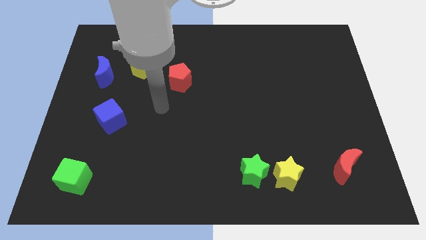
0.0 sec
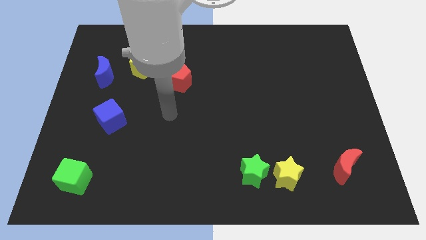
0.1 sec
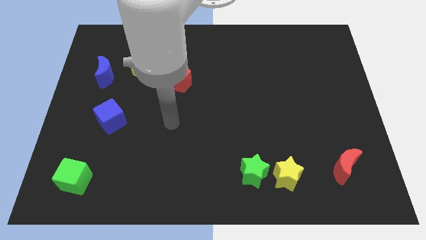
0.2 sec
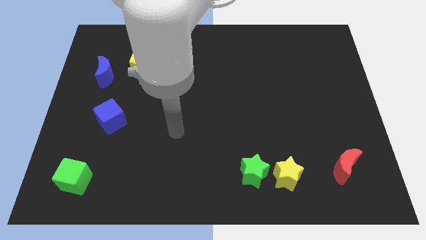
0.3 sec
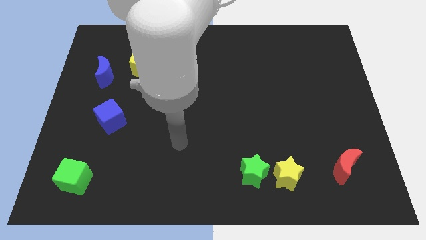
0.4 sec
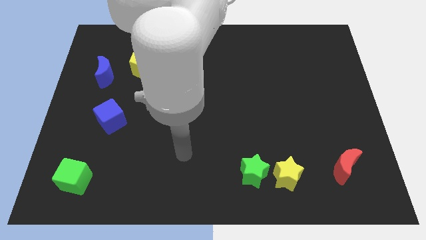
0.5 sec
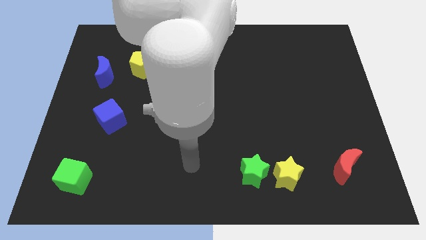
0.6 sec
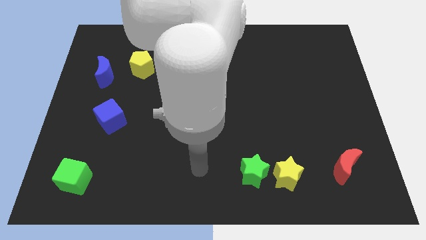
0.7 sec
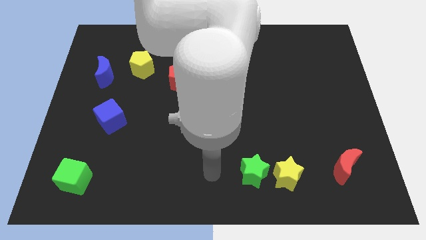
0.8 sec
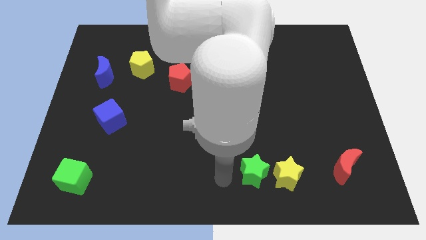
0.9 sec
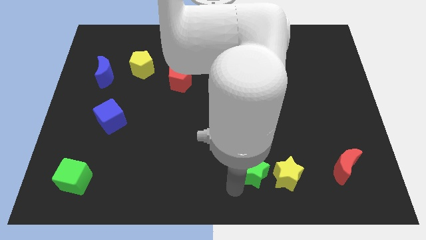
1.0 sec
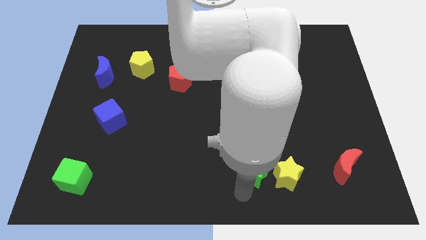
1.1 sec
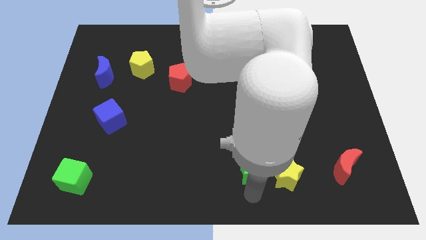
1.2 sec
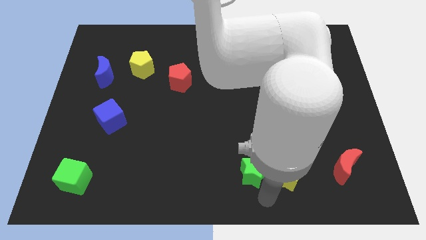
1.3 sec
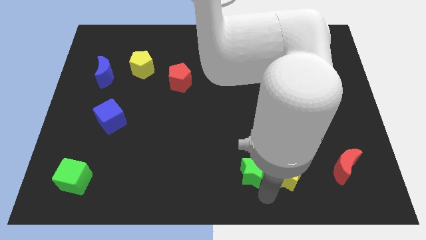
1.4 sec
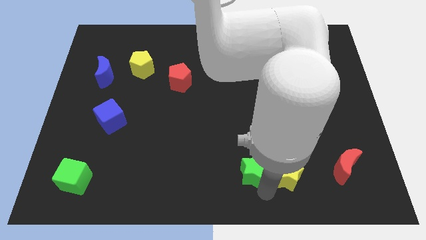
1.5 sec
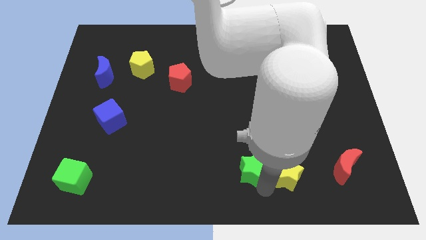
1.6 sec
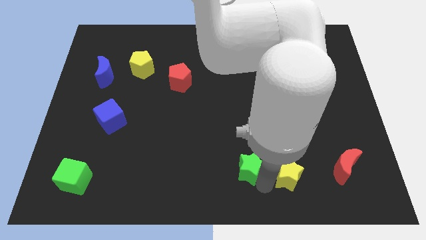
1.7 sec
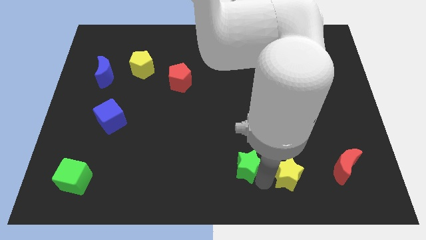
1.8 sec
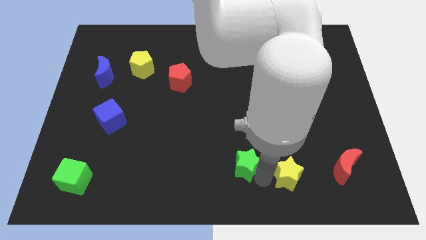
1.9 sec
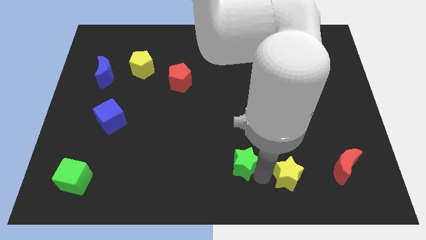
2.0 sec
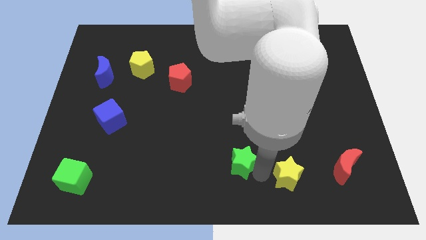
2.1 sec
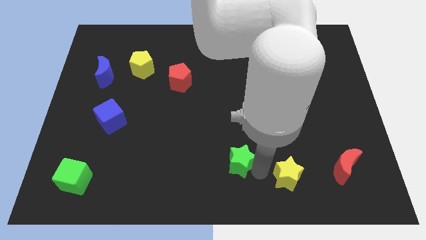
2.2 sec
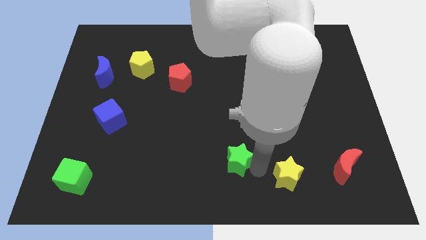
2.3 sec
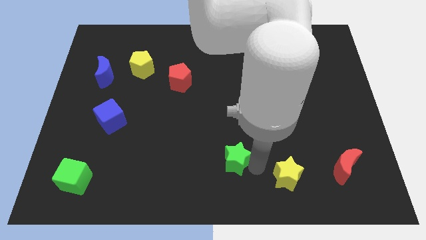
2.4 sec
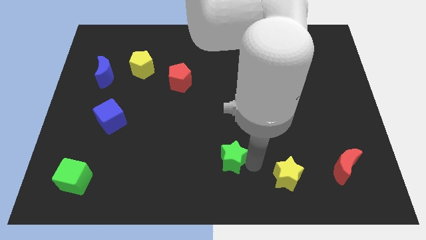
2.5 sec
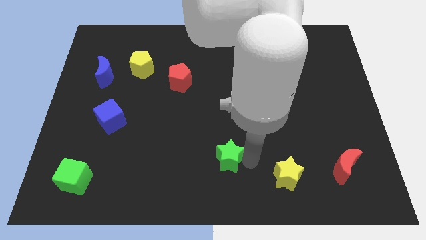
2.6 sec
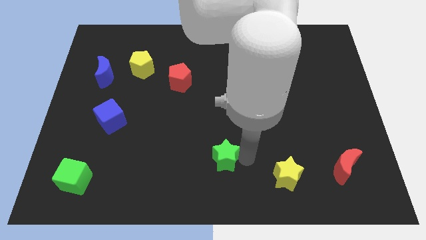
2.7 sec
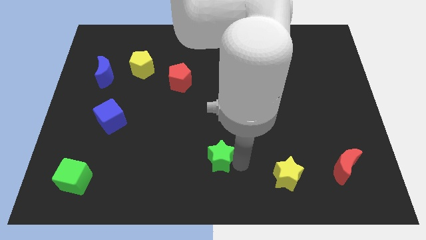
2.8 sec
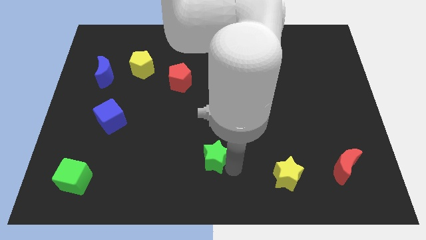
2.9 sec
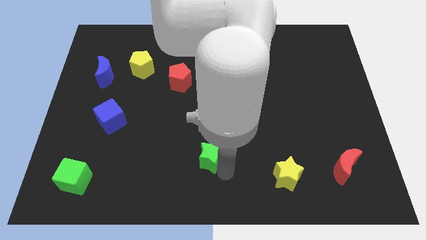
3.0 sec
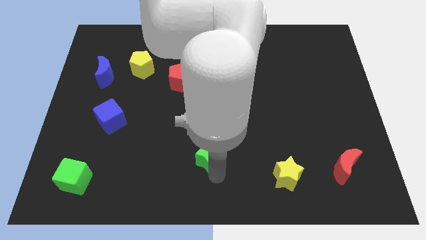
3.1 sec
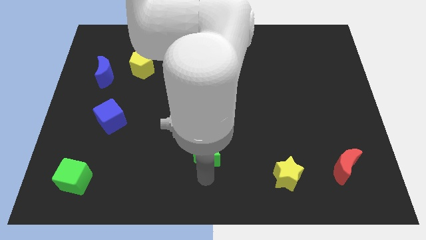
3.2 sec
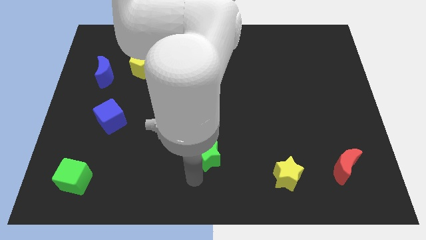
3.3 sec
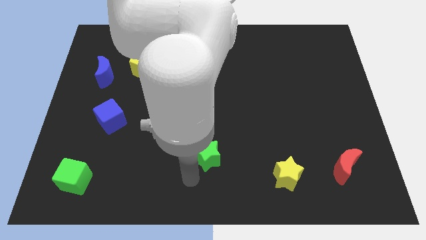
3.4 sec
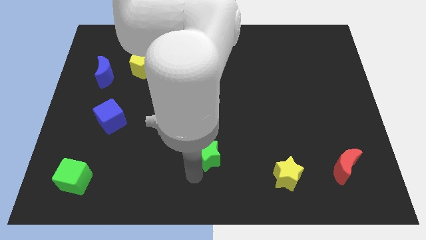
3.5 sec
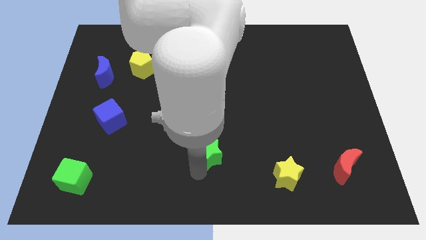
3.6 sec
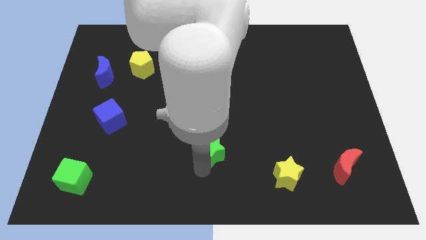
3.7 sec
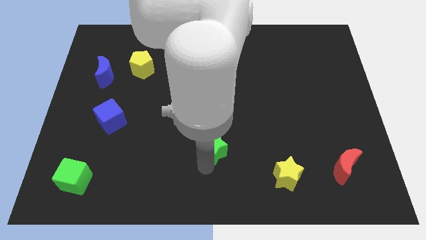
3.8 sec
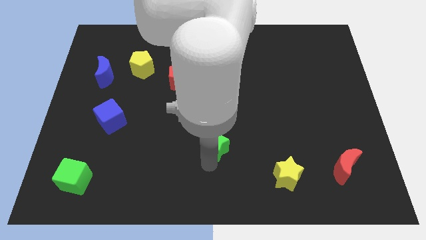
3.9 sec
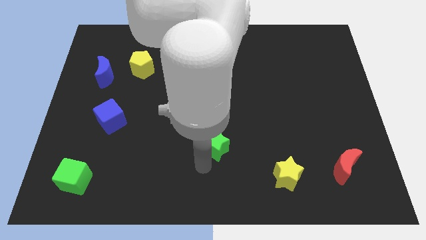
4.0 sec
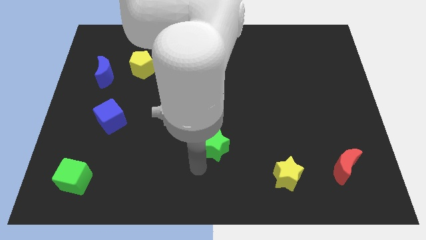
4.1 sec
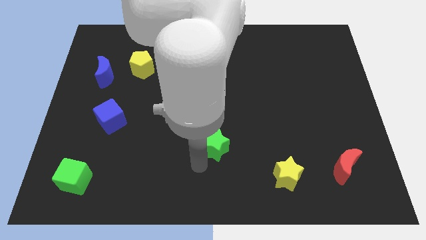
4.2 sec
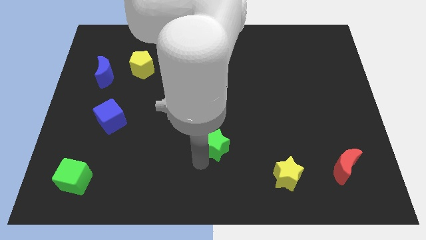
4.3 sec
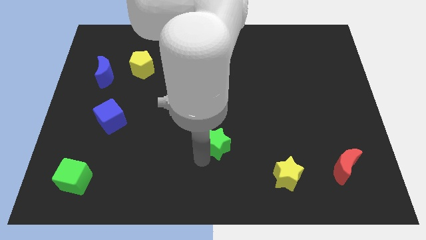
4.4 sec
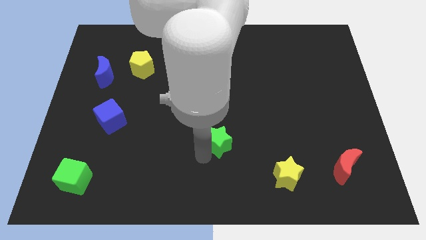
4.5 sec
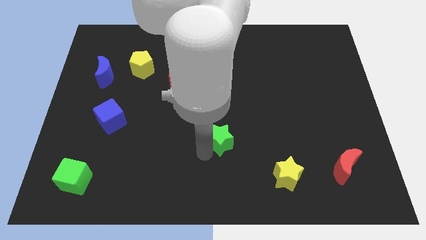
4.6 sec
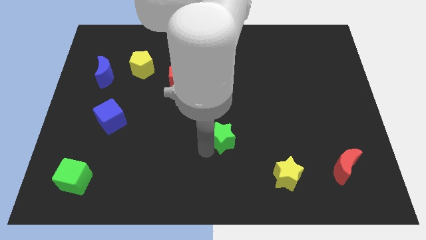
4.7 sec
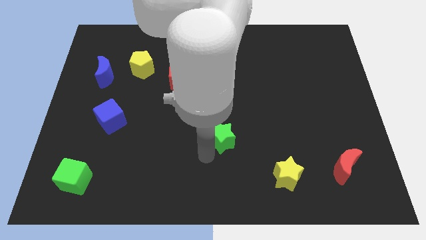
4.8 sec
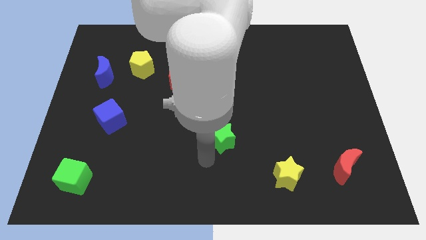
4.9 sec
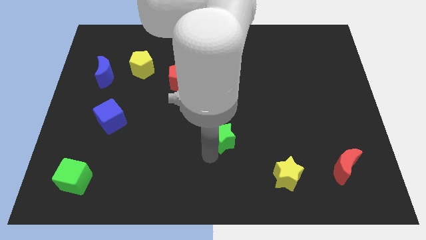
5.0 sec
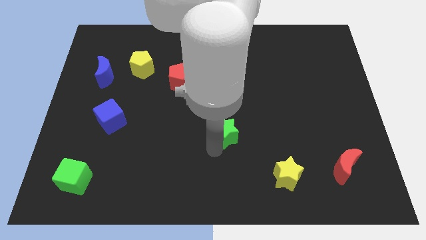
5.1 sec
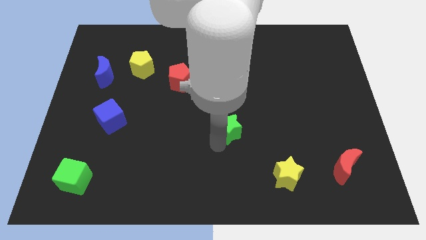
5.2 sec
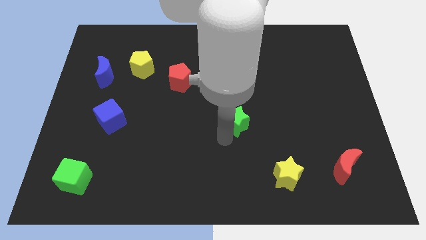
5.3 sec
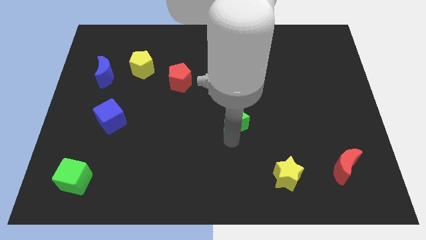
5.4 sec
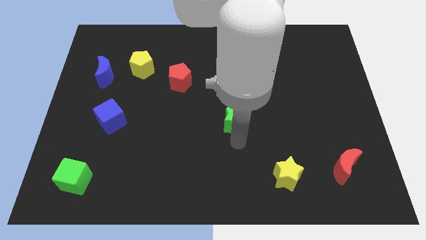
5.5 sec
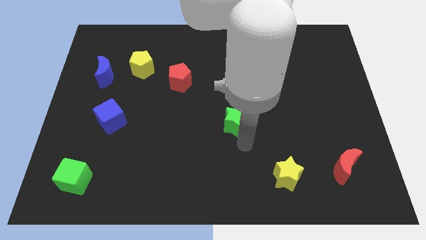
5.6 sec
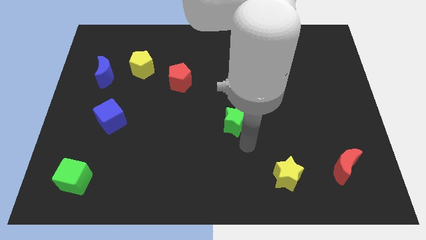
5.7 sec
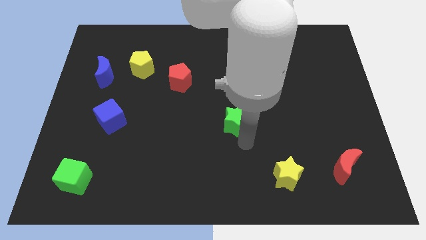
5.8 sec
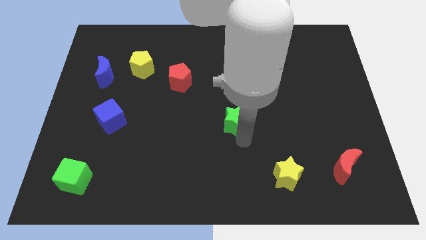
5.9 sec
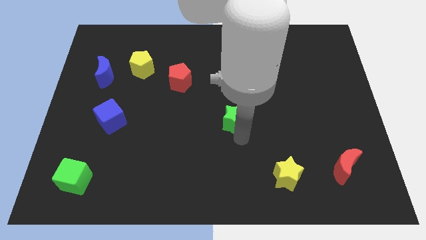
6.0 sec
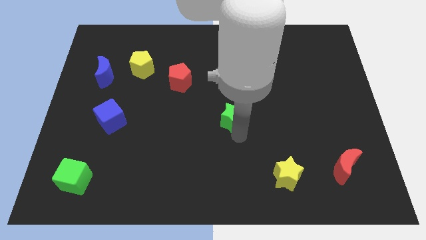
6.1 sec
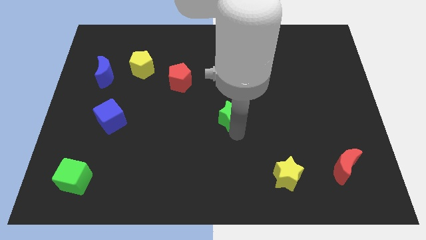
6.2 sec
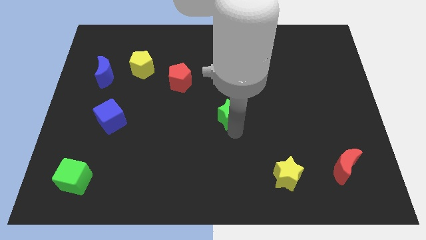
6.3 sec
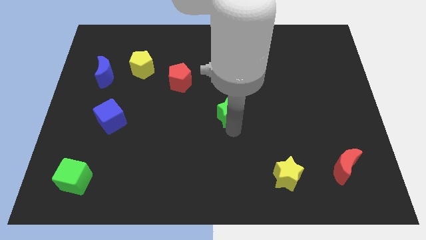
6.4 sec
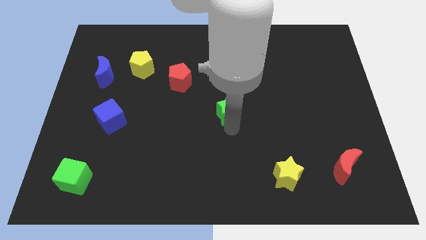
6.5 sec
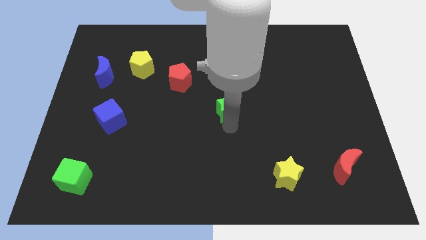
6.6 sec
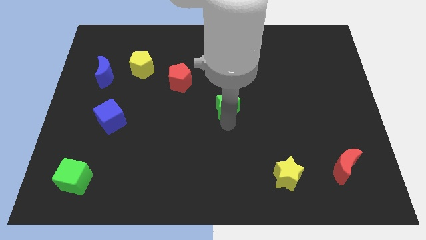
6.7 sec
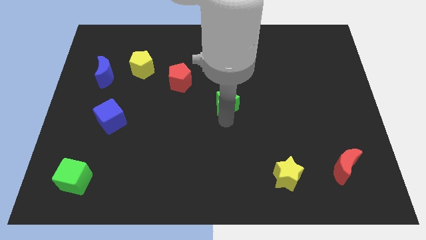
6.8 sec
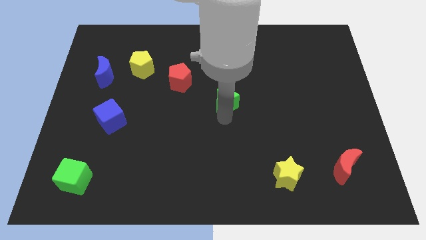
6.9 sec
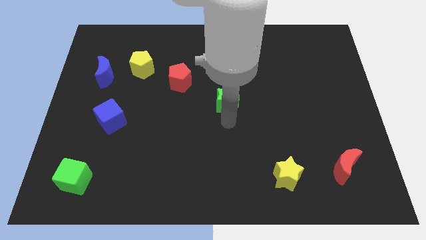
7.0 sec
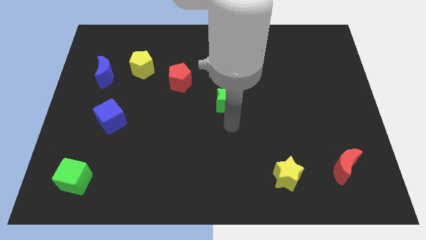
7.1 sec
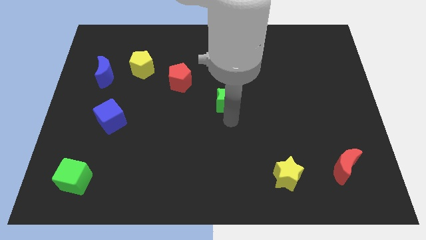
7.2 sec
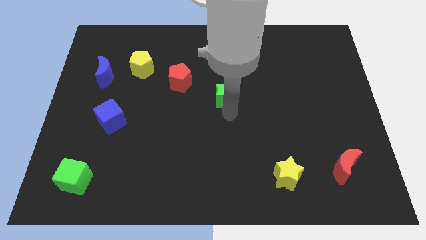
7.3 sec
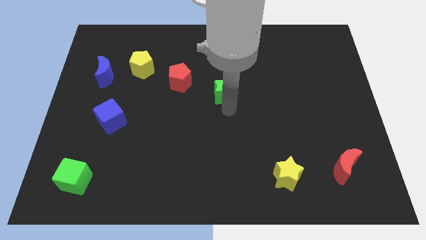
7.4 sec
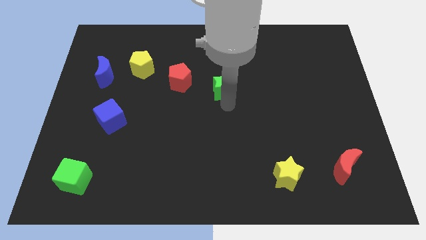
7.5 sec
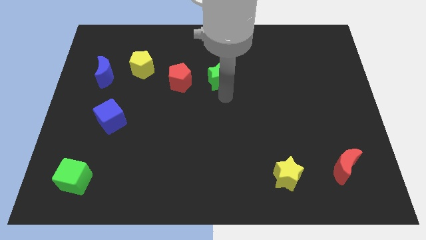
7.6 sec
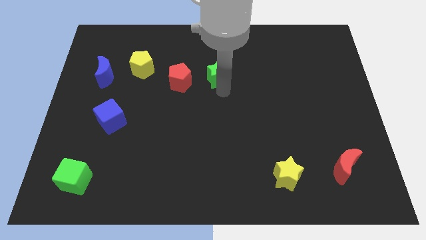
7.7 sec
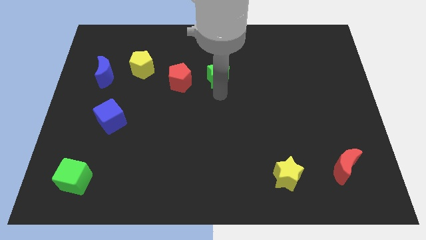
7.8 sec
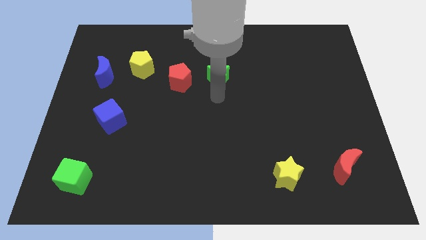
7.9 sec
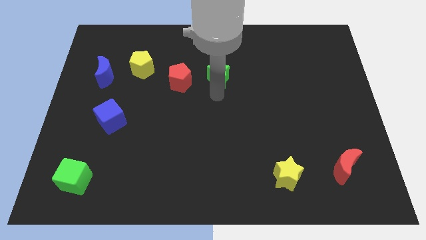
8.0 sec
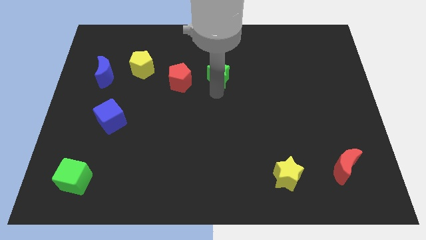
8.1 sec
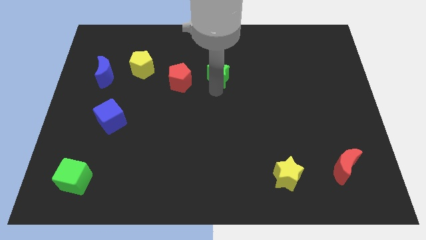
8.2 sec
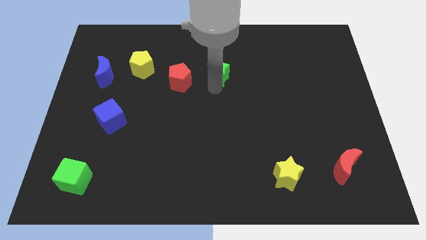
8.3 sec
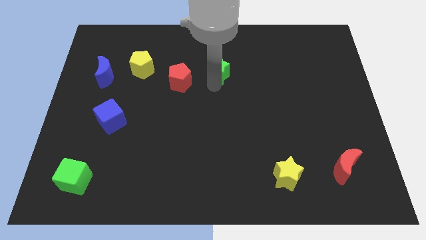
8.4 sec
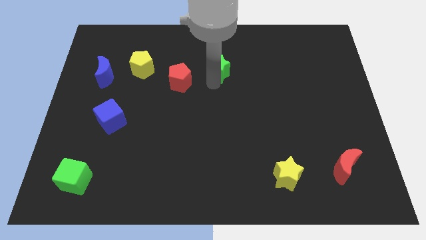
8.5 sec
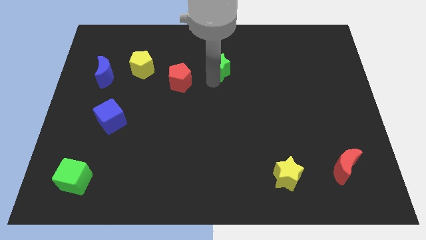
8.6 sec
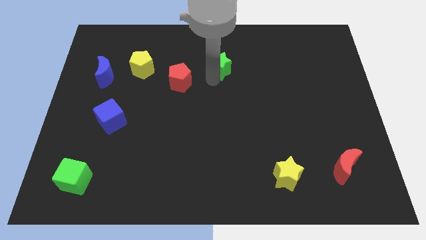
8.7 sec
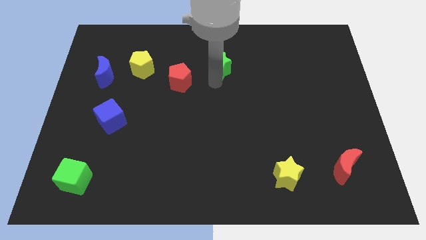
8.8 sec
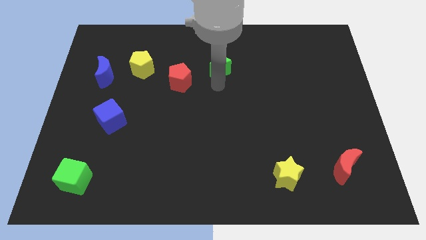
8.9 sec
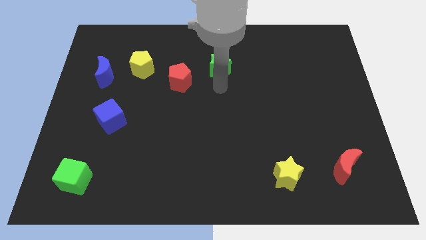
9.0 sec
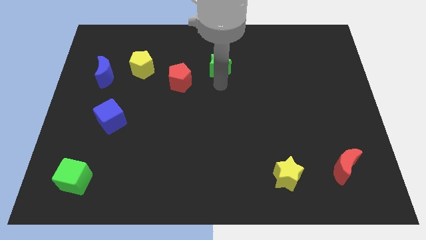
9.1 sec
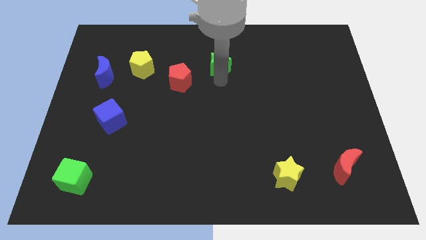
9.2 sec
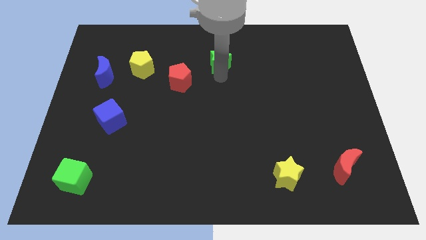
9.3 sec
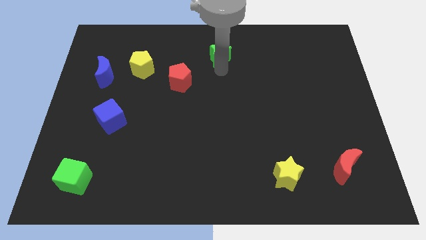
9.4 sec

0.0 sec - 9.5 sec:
put the green star to the top side
